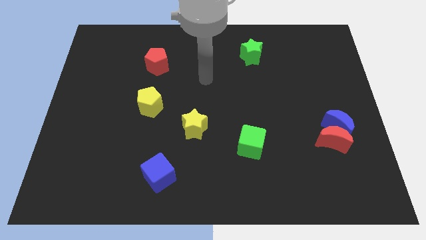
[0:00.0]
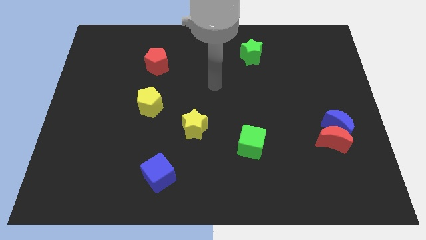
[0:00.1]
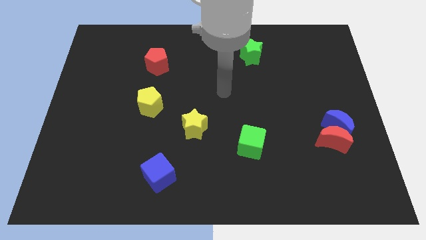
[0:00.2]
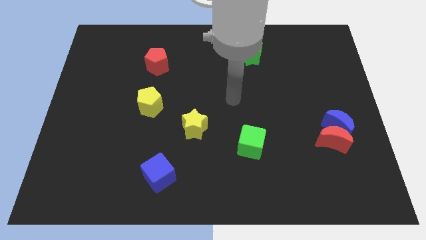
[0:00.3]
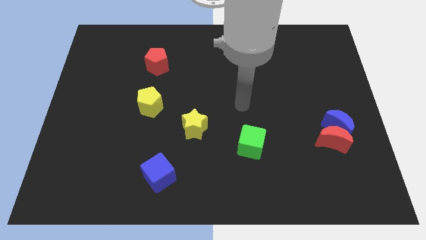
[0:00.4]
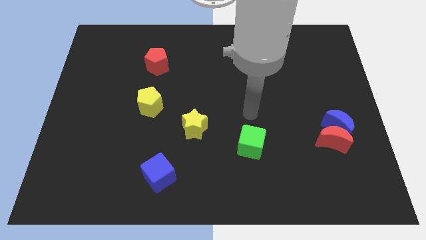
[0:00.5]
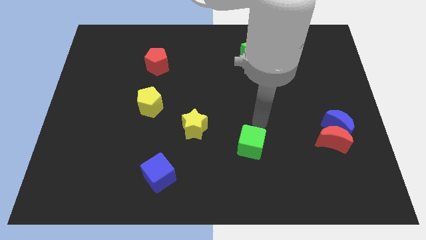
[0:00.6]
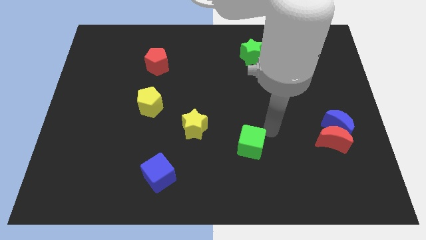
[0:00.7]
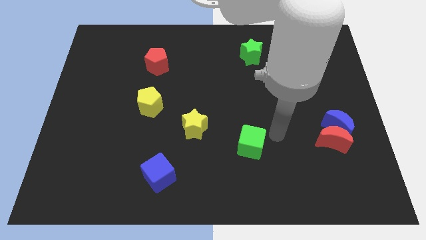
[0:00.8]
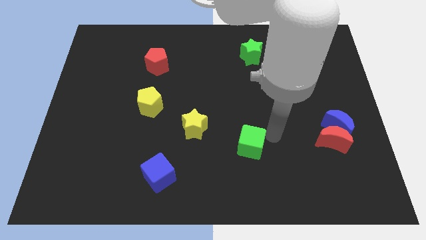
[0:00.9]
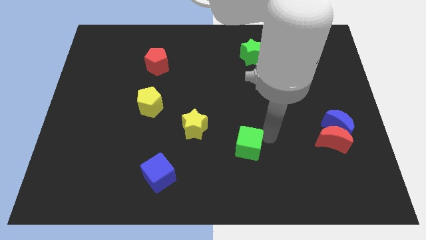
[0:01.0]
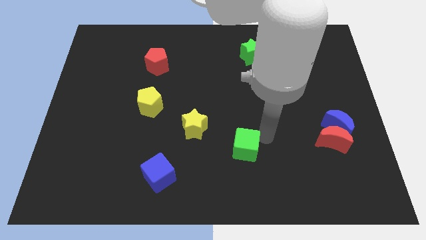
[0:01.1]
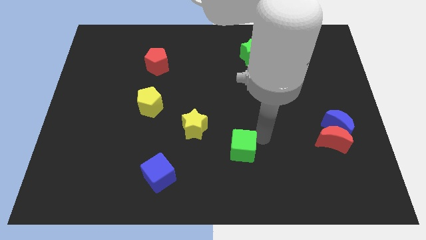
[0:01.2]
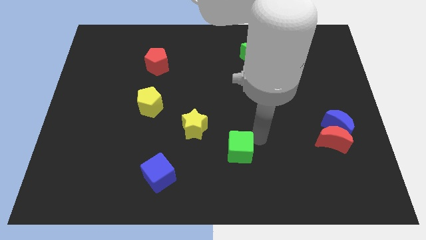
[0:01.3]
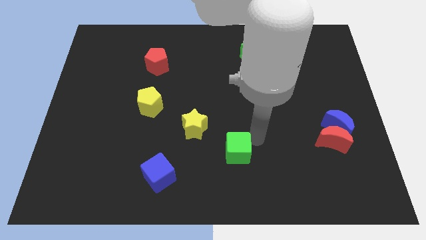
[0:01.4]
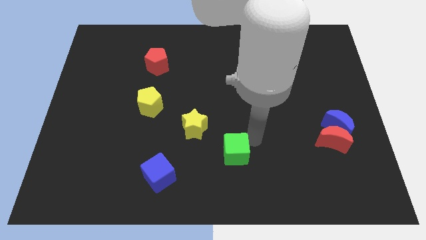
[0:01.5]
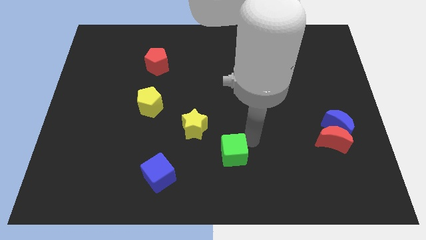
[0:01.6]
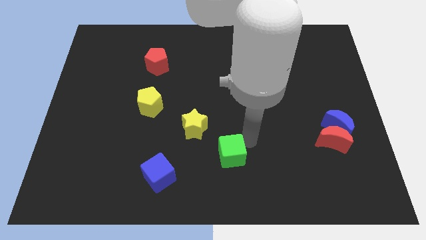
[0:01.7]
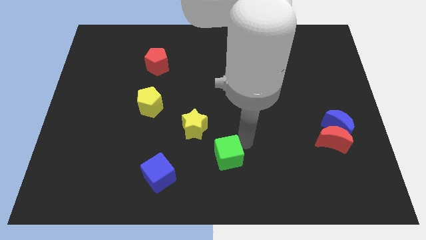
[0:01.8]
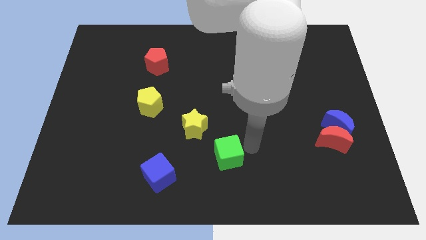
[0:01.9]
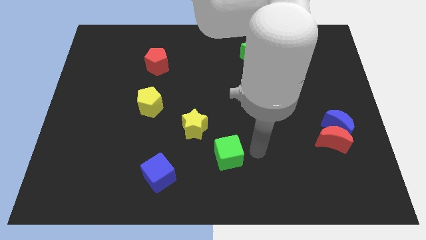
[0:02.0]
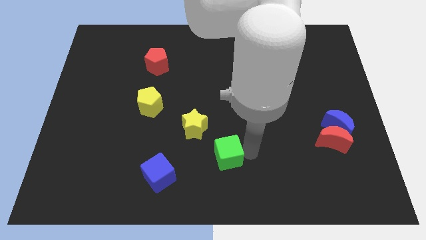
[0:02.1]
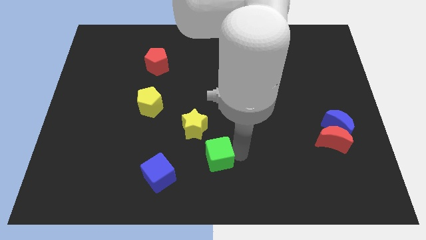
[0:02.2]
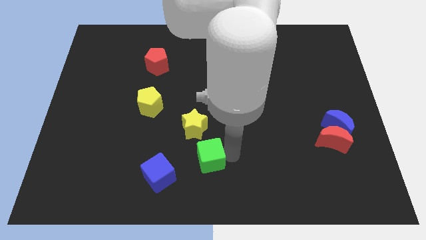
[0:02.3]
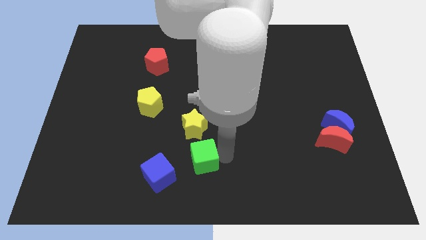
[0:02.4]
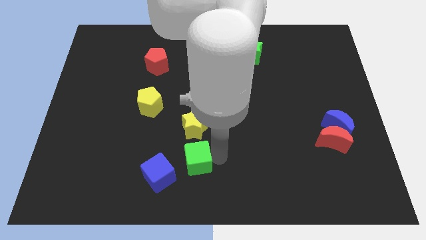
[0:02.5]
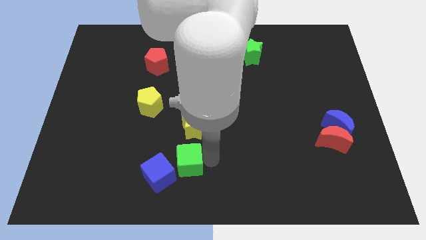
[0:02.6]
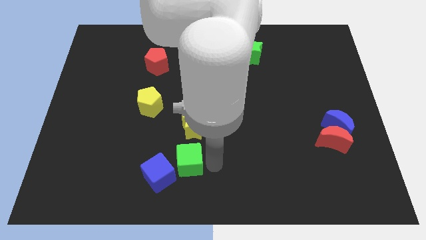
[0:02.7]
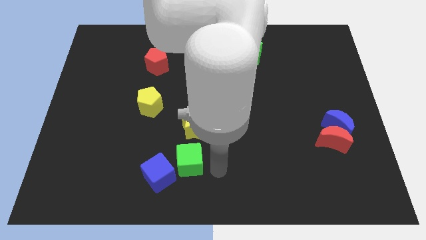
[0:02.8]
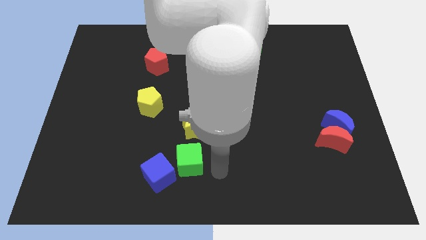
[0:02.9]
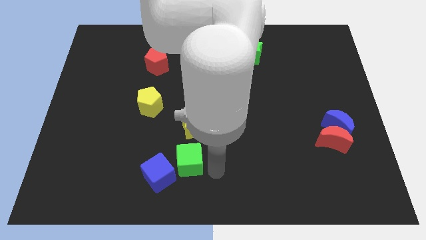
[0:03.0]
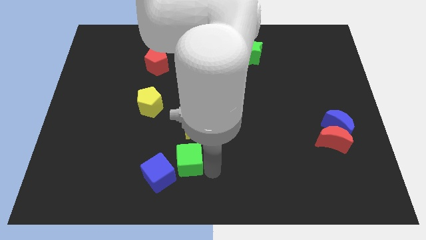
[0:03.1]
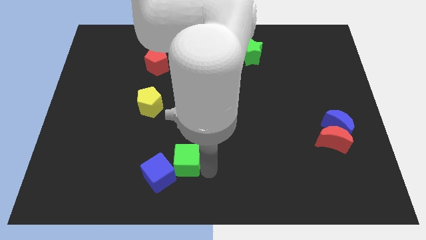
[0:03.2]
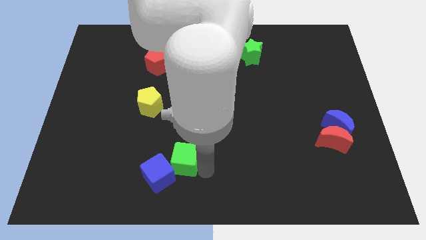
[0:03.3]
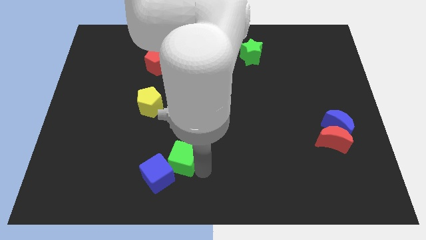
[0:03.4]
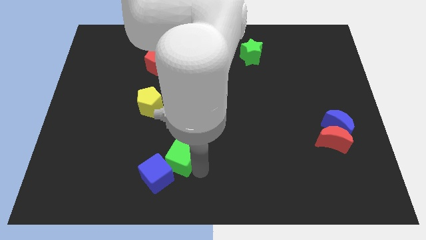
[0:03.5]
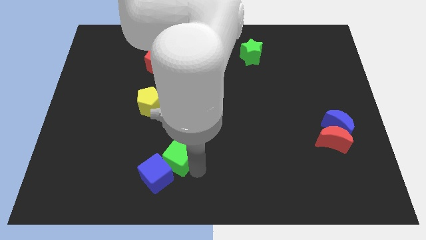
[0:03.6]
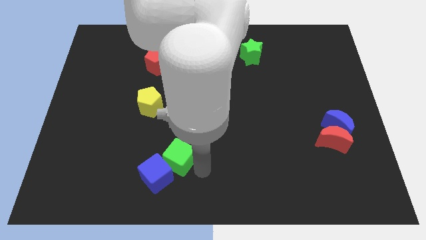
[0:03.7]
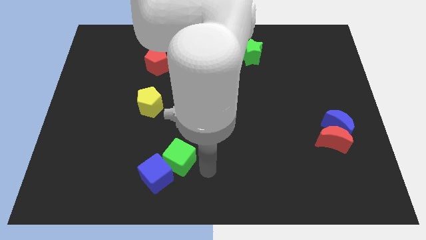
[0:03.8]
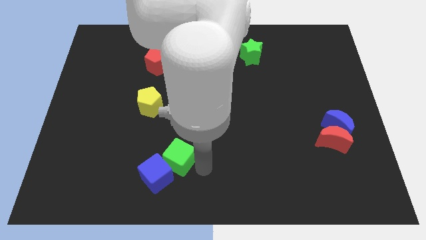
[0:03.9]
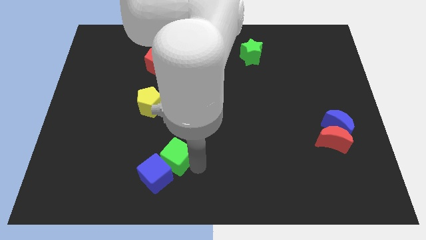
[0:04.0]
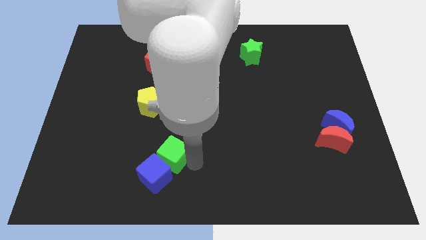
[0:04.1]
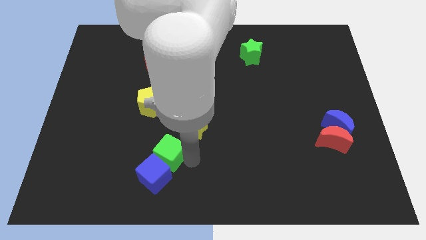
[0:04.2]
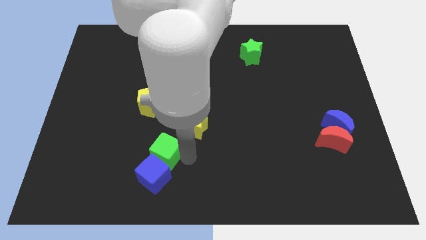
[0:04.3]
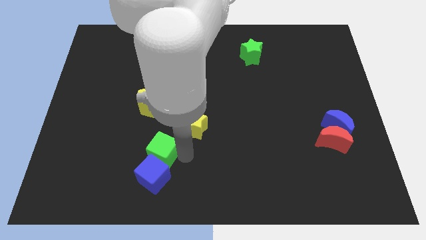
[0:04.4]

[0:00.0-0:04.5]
put the green cube to the top left side of the blue cube

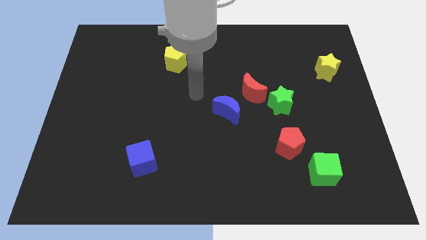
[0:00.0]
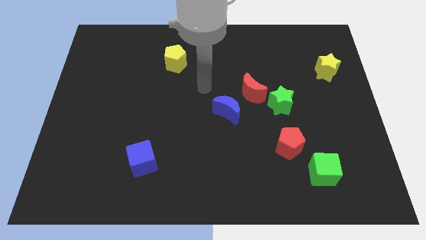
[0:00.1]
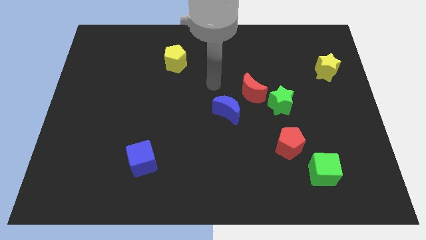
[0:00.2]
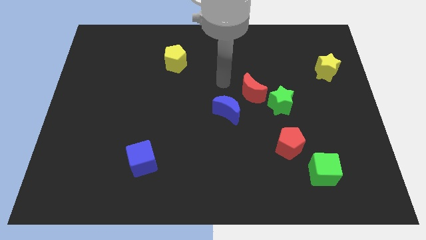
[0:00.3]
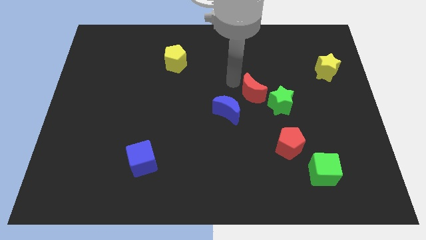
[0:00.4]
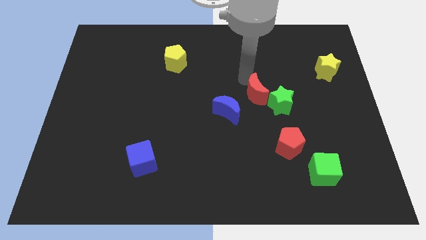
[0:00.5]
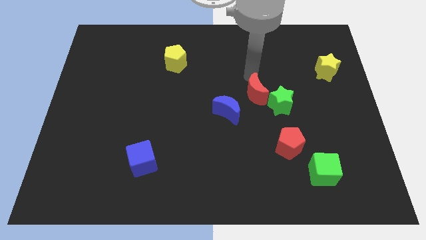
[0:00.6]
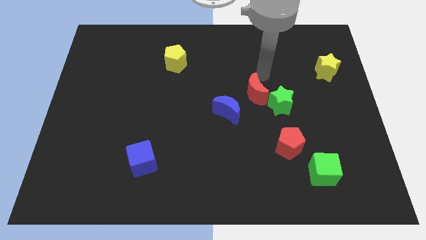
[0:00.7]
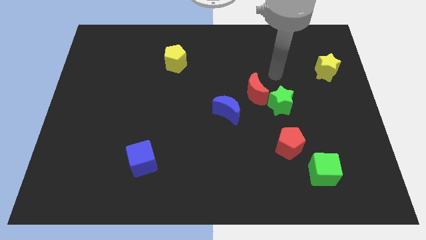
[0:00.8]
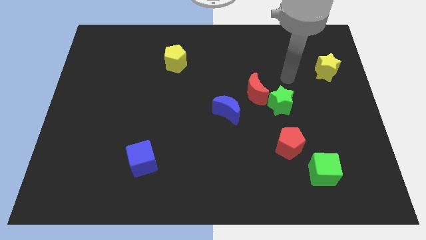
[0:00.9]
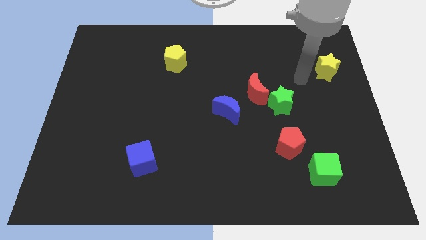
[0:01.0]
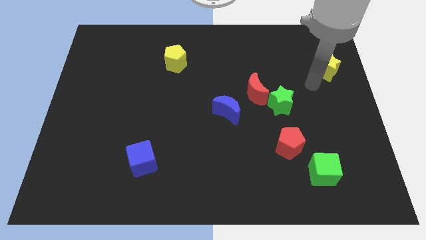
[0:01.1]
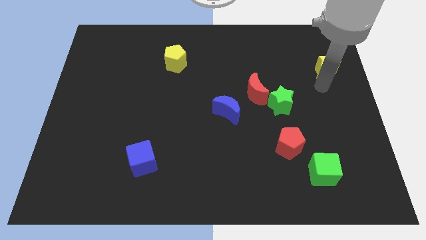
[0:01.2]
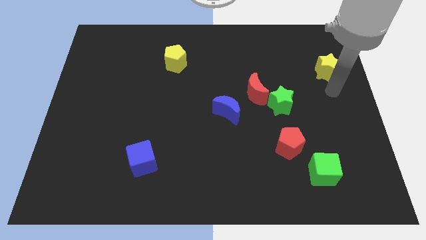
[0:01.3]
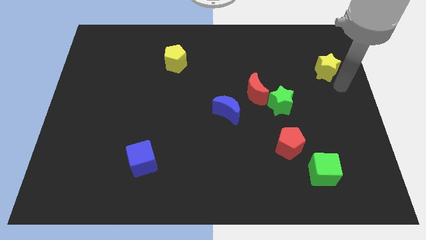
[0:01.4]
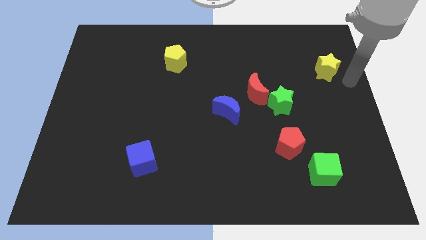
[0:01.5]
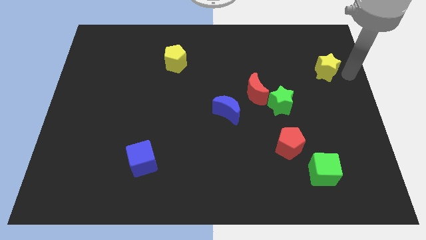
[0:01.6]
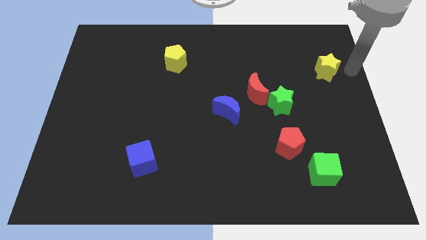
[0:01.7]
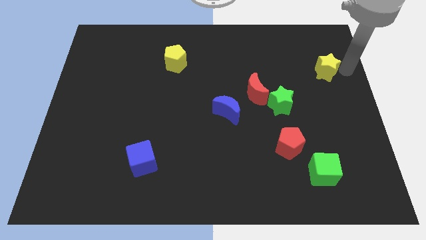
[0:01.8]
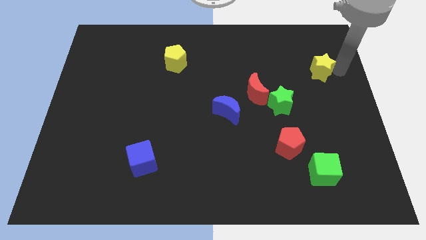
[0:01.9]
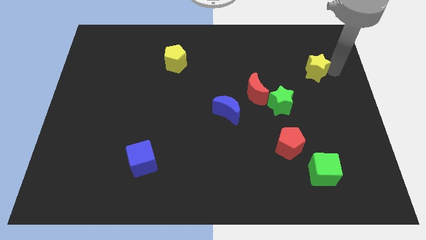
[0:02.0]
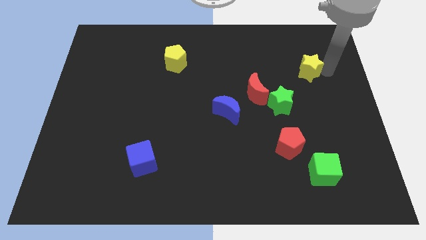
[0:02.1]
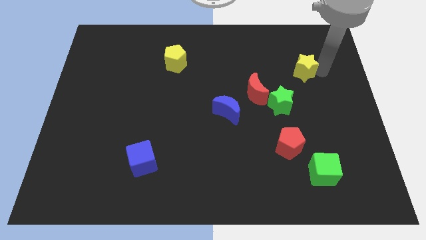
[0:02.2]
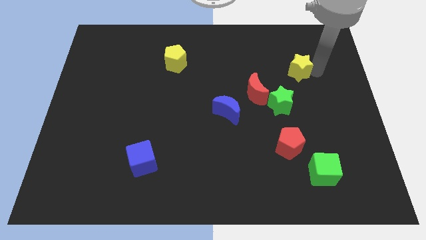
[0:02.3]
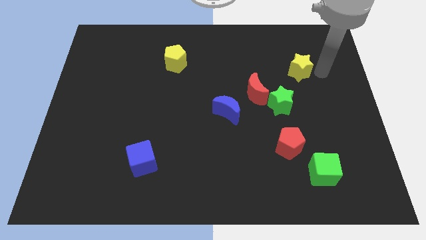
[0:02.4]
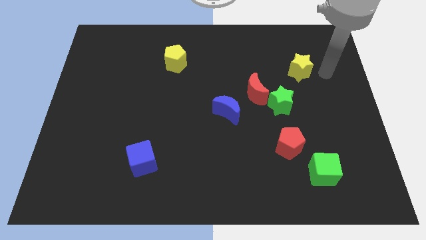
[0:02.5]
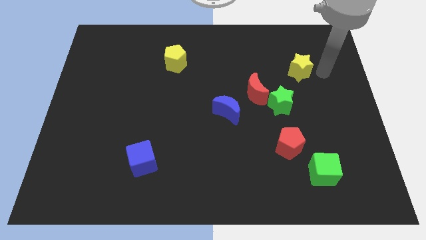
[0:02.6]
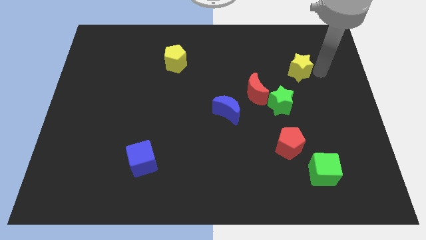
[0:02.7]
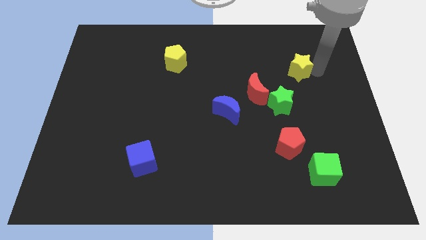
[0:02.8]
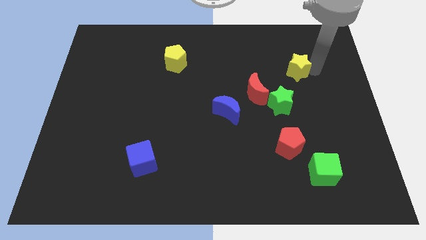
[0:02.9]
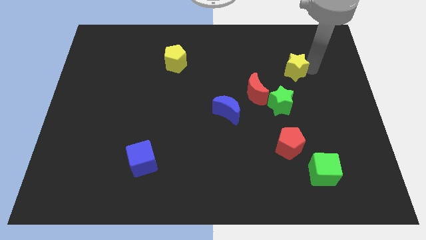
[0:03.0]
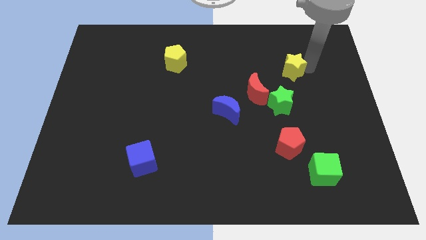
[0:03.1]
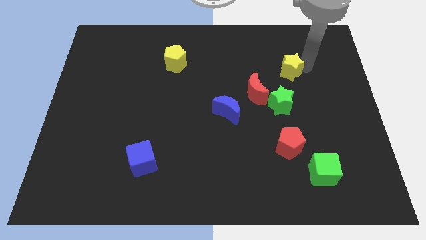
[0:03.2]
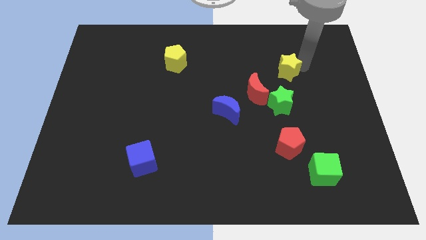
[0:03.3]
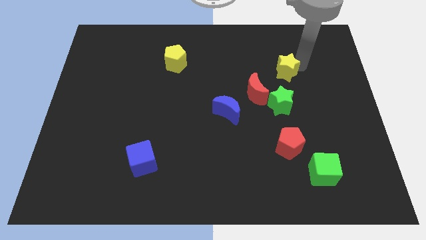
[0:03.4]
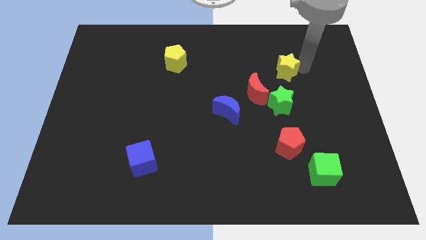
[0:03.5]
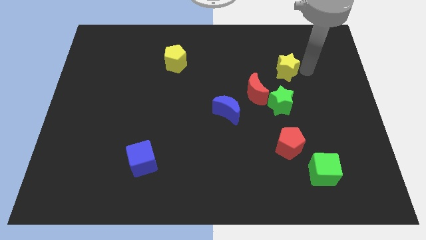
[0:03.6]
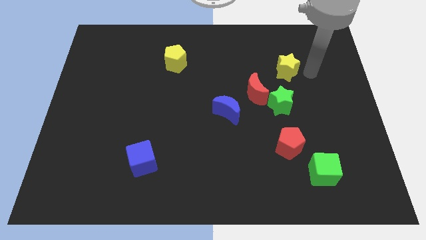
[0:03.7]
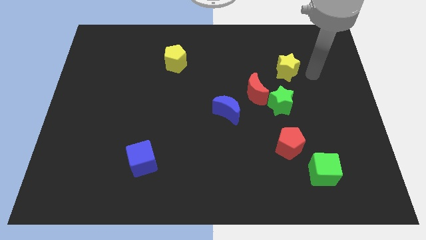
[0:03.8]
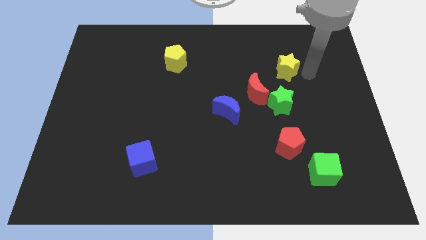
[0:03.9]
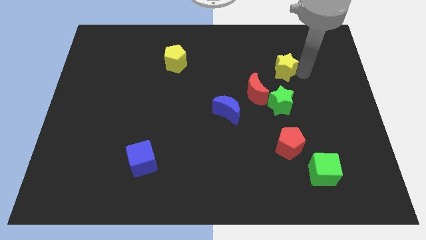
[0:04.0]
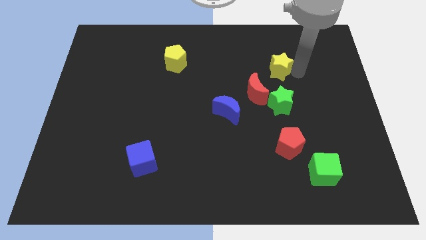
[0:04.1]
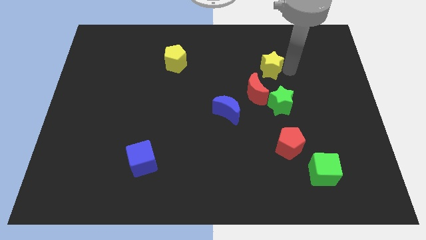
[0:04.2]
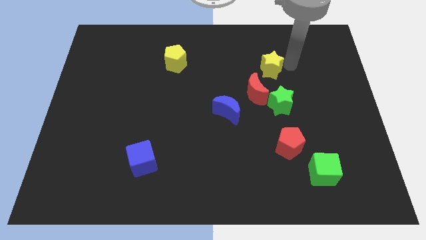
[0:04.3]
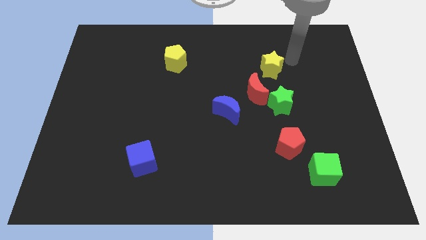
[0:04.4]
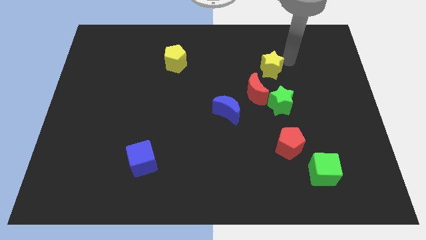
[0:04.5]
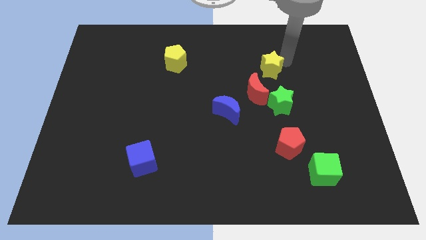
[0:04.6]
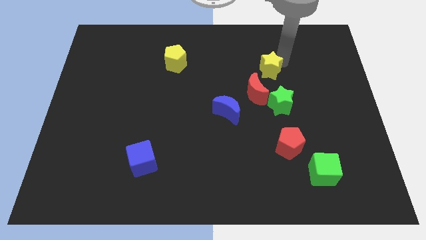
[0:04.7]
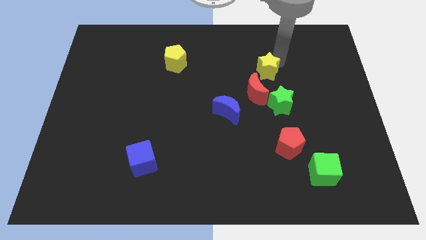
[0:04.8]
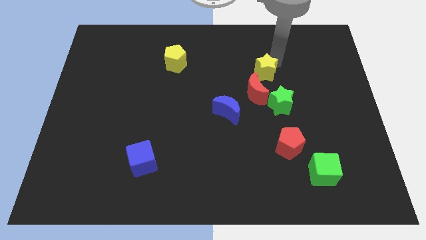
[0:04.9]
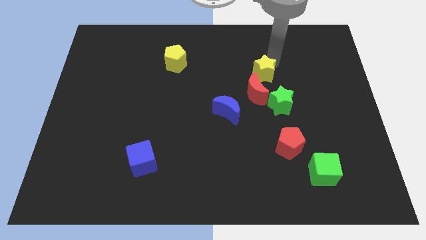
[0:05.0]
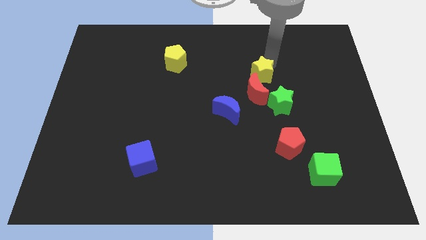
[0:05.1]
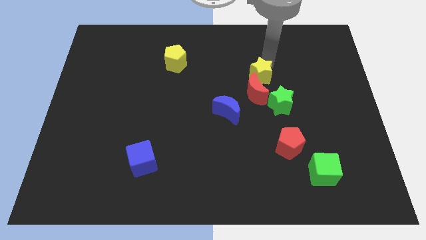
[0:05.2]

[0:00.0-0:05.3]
move the yellow star diagonally up and to the left of the green star
